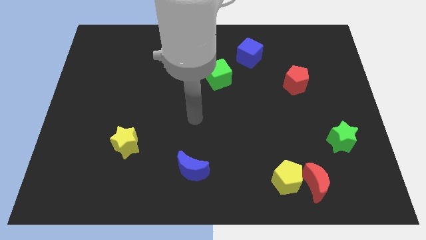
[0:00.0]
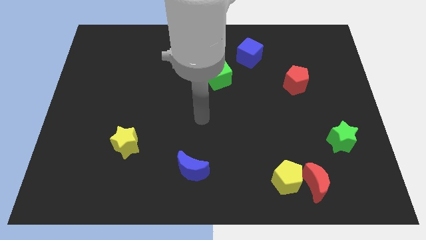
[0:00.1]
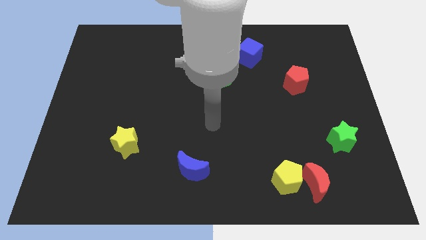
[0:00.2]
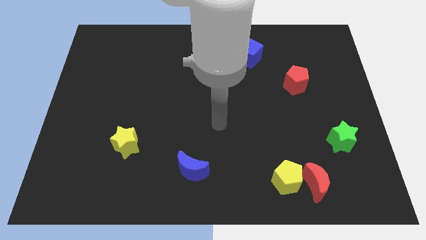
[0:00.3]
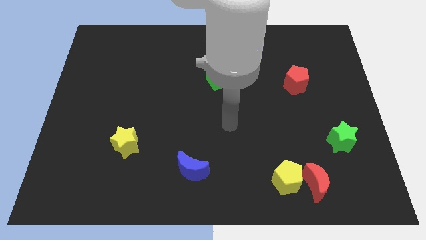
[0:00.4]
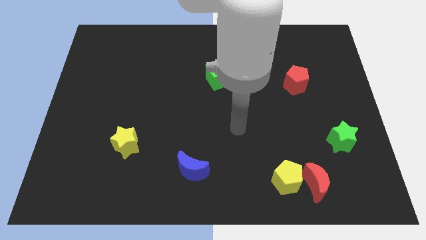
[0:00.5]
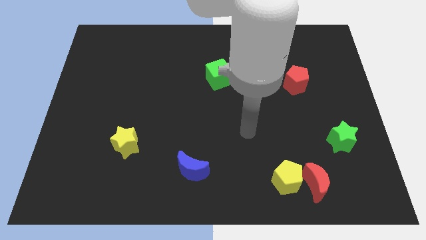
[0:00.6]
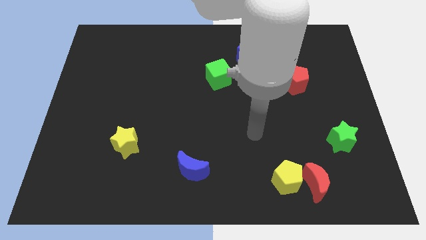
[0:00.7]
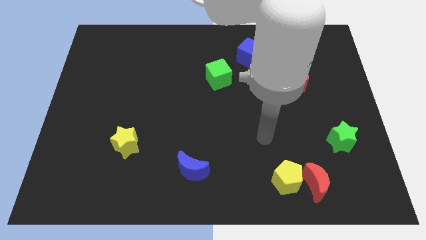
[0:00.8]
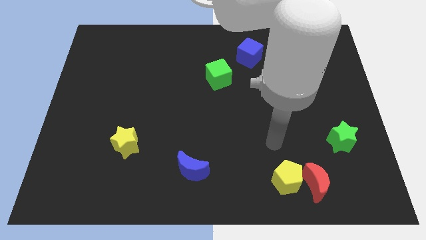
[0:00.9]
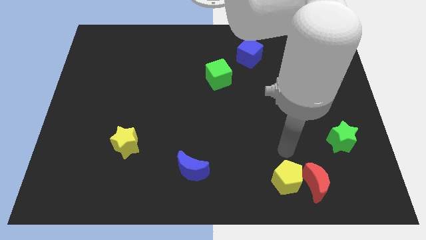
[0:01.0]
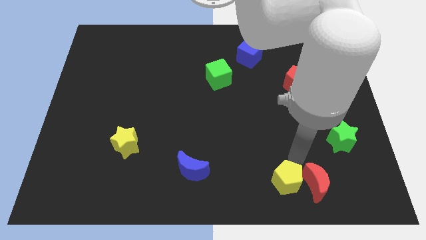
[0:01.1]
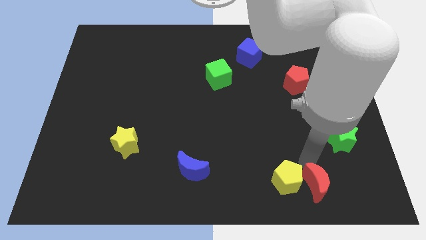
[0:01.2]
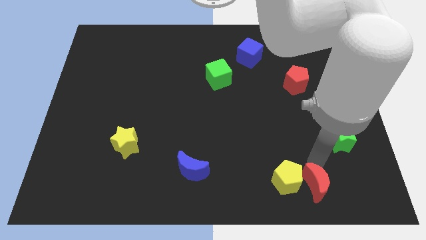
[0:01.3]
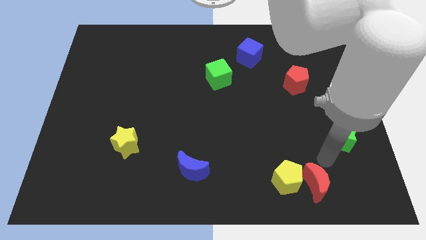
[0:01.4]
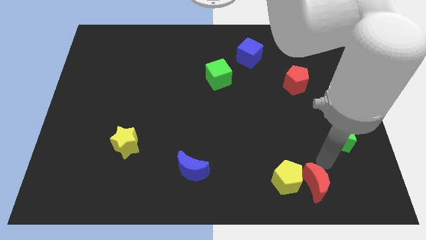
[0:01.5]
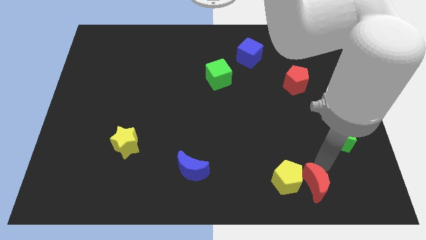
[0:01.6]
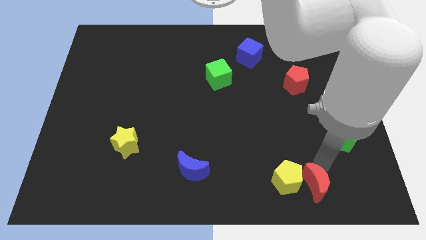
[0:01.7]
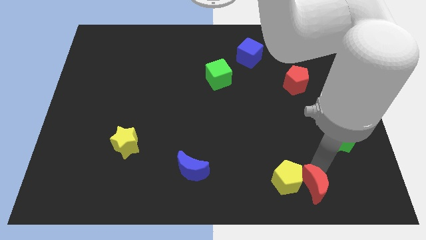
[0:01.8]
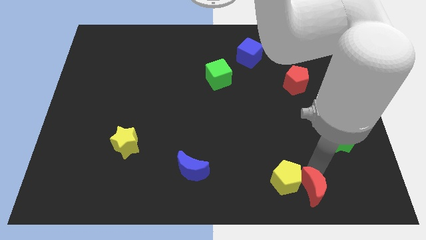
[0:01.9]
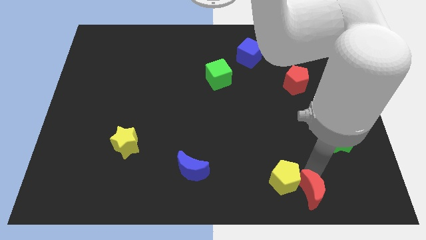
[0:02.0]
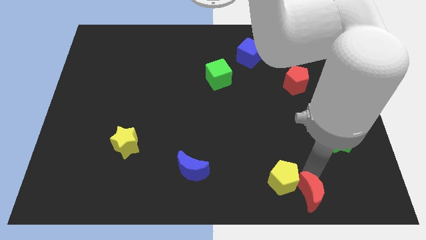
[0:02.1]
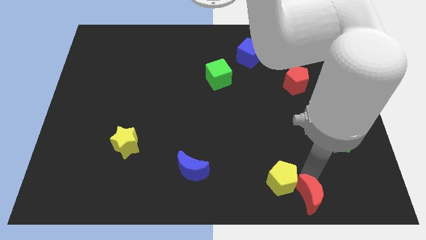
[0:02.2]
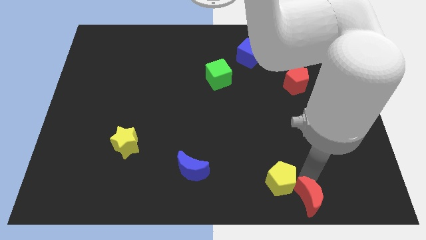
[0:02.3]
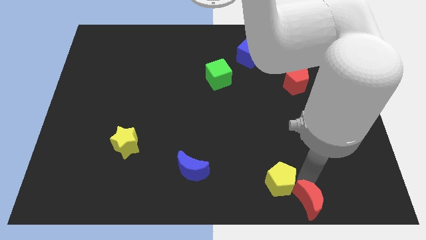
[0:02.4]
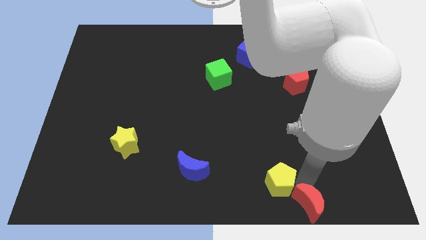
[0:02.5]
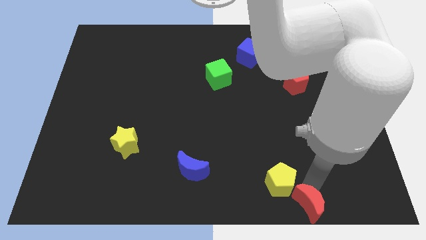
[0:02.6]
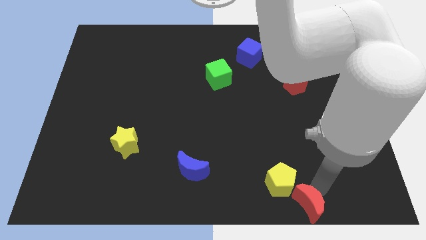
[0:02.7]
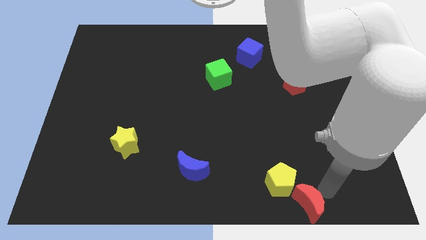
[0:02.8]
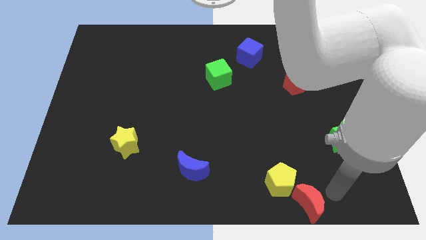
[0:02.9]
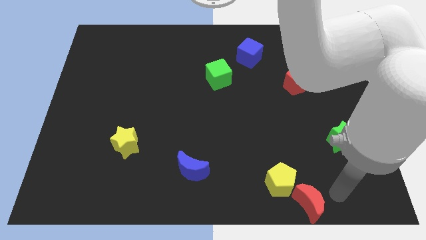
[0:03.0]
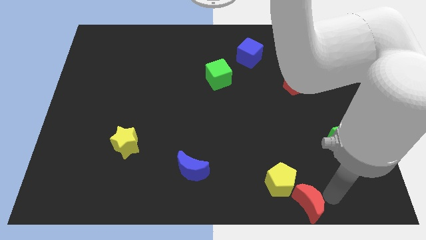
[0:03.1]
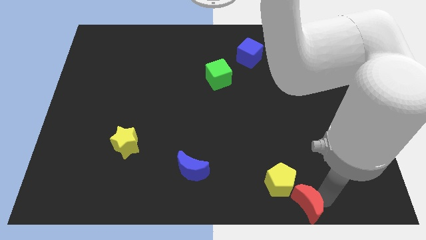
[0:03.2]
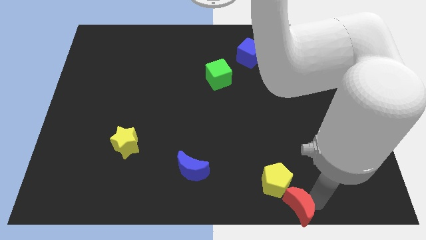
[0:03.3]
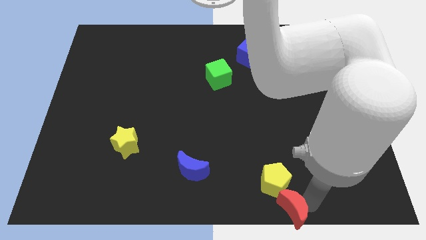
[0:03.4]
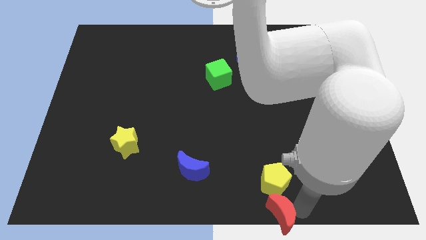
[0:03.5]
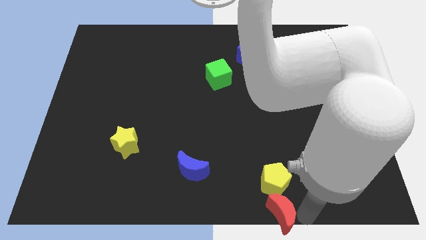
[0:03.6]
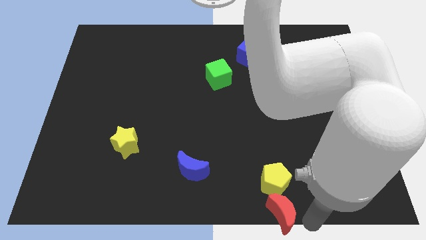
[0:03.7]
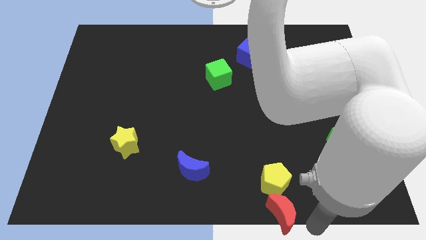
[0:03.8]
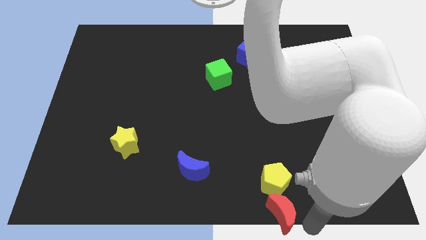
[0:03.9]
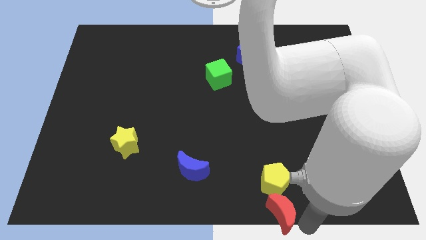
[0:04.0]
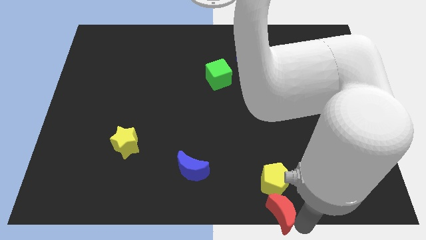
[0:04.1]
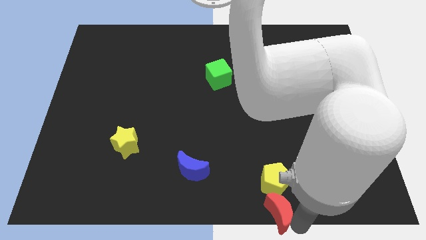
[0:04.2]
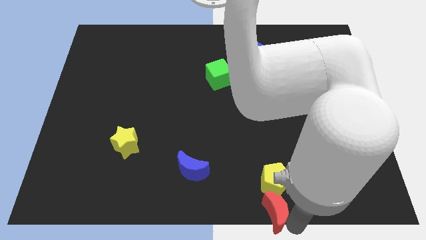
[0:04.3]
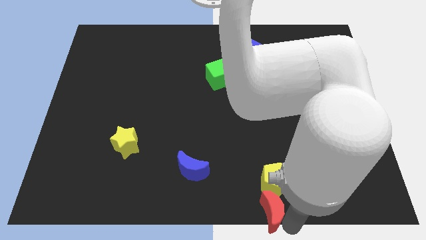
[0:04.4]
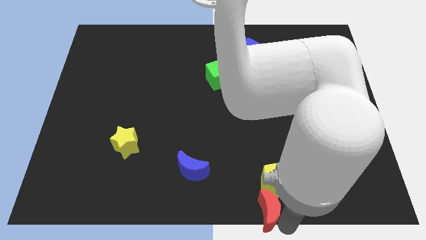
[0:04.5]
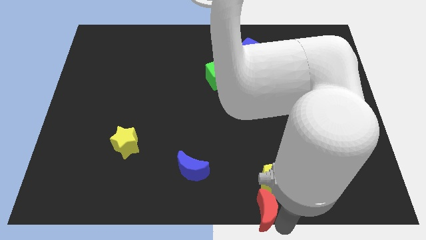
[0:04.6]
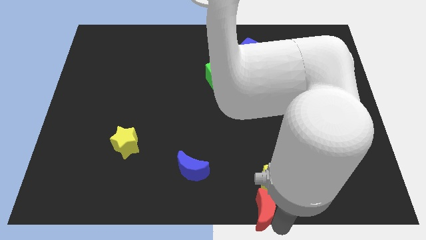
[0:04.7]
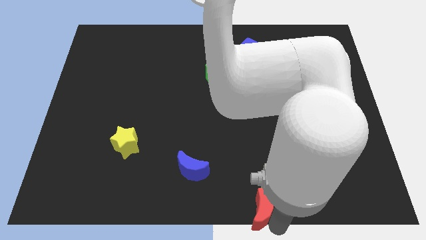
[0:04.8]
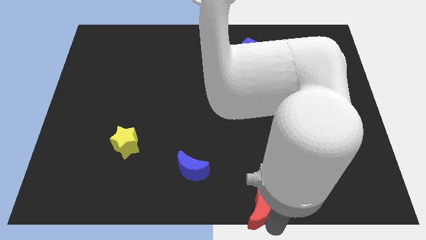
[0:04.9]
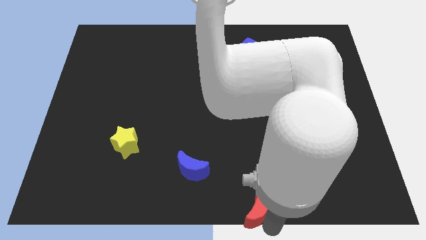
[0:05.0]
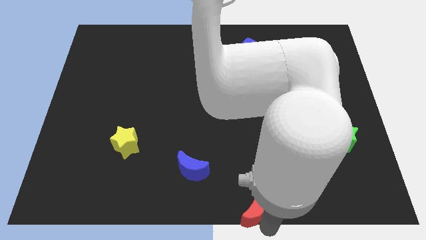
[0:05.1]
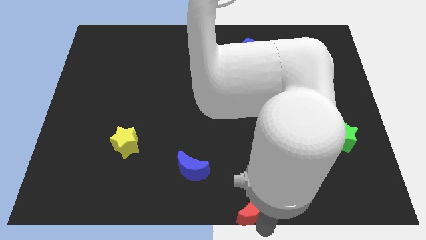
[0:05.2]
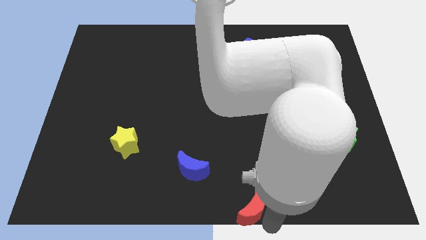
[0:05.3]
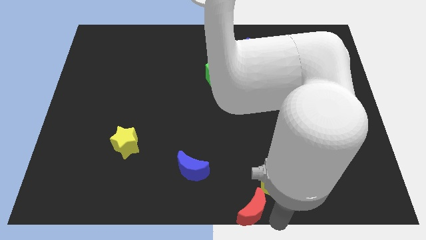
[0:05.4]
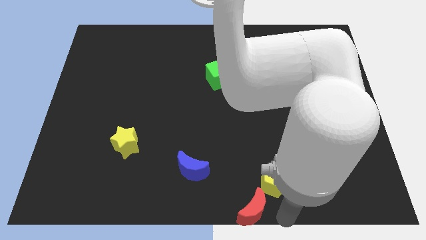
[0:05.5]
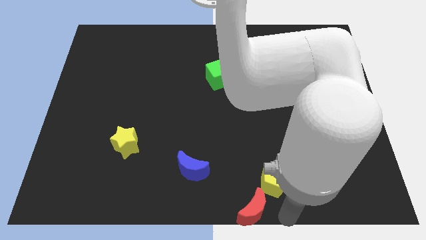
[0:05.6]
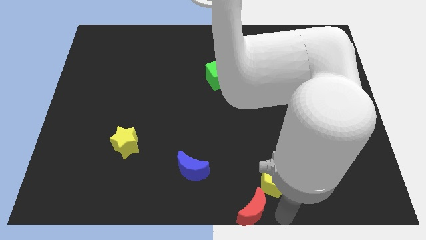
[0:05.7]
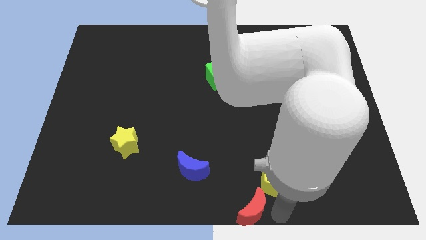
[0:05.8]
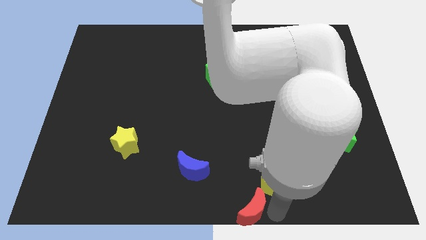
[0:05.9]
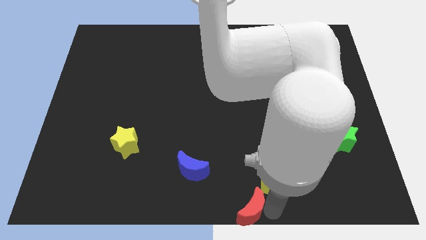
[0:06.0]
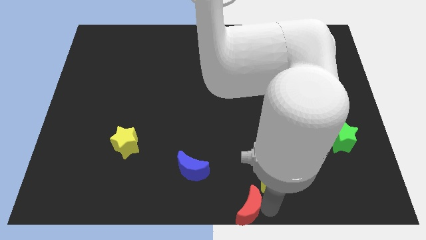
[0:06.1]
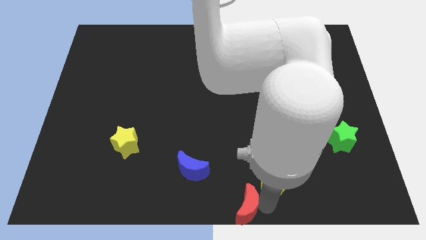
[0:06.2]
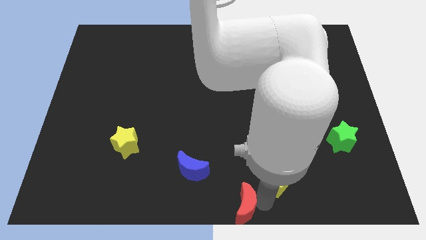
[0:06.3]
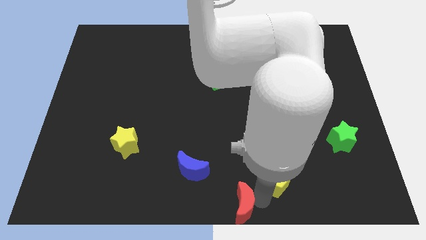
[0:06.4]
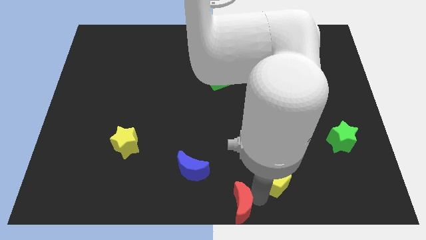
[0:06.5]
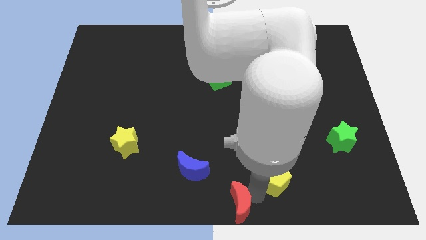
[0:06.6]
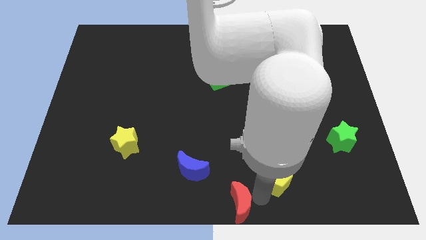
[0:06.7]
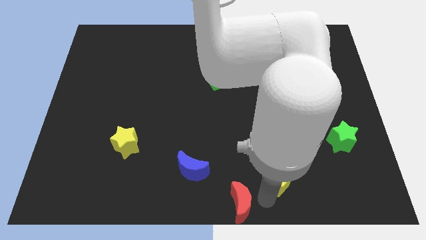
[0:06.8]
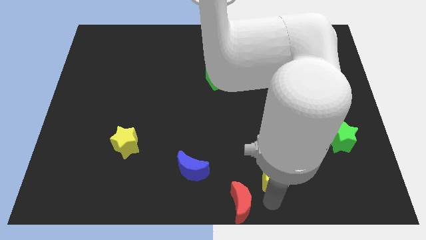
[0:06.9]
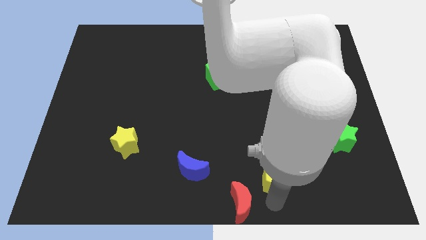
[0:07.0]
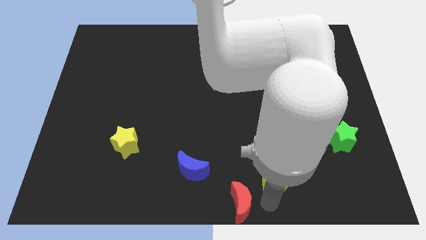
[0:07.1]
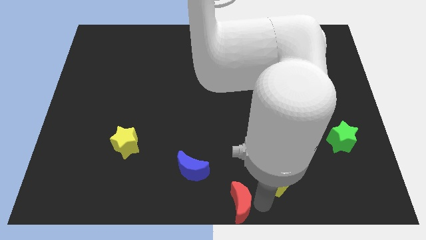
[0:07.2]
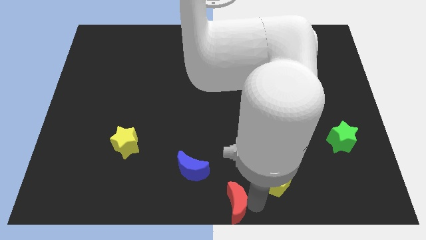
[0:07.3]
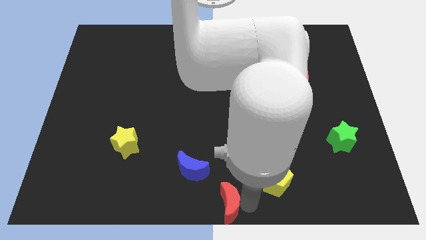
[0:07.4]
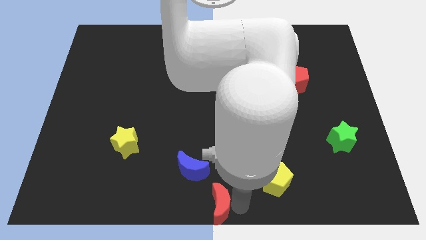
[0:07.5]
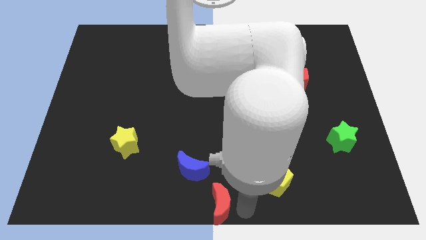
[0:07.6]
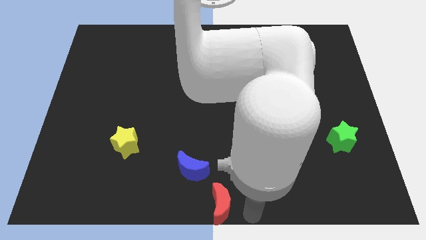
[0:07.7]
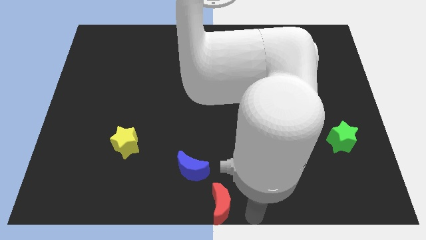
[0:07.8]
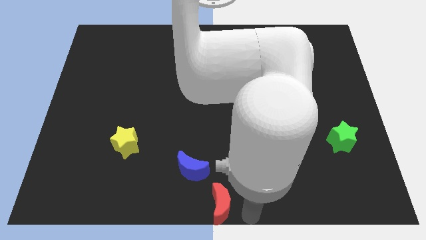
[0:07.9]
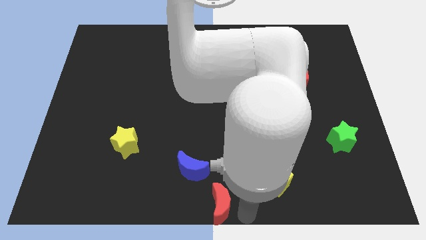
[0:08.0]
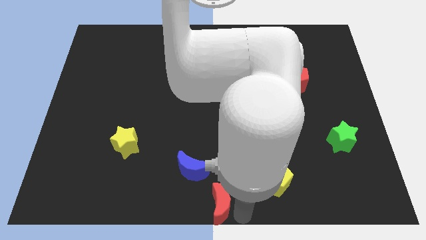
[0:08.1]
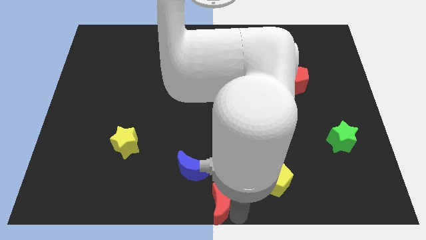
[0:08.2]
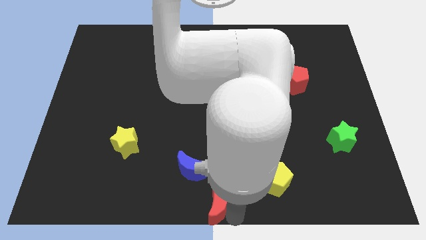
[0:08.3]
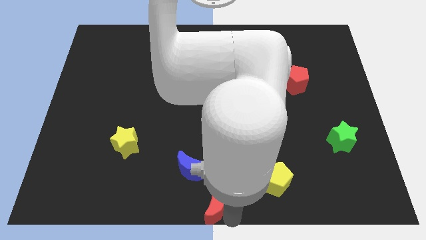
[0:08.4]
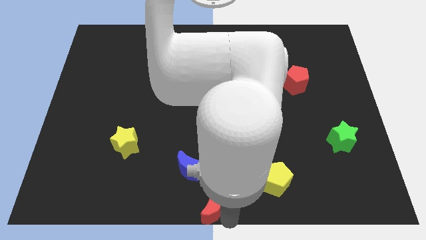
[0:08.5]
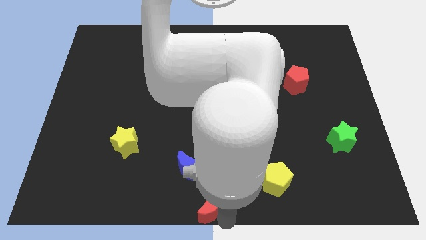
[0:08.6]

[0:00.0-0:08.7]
slide the red moon to the left
